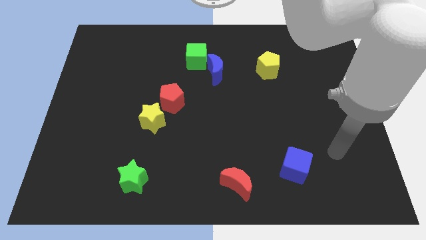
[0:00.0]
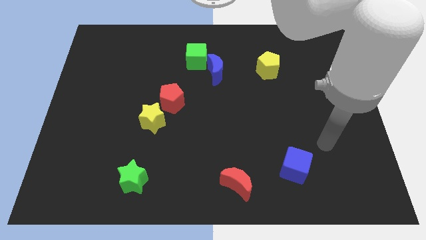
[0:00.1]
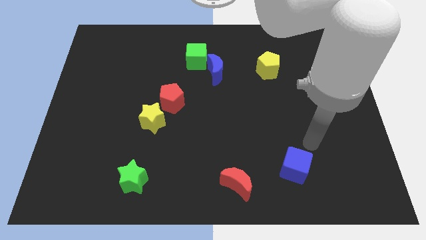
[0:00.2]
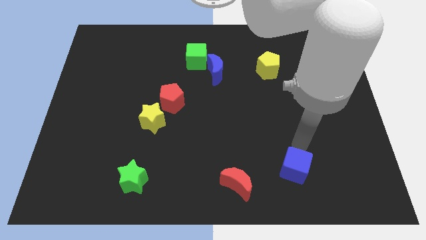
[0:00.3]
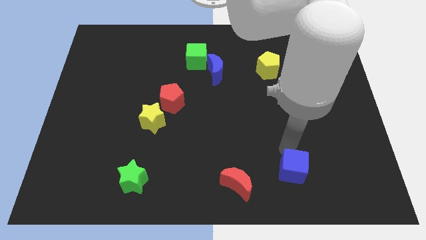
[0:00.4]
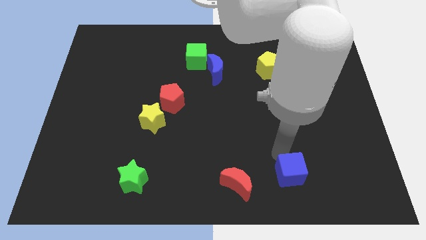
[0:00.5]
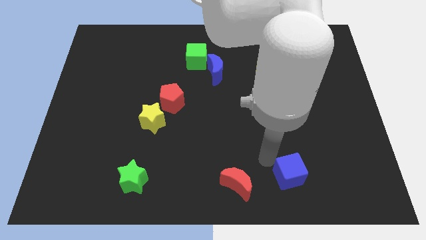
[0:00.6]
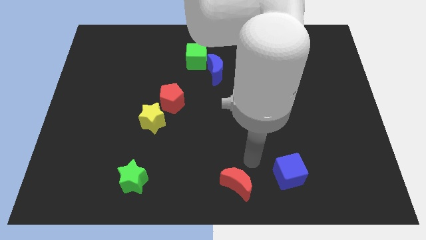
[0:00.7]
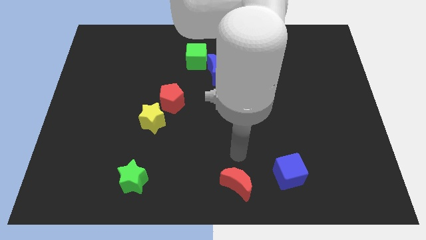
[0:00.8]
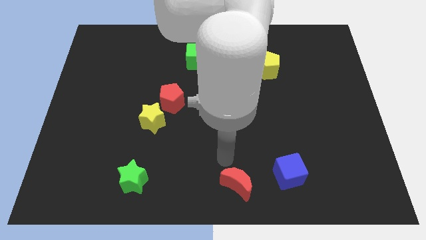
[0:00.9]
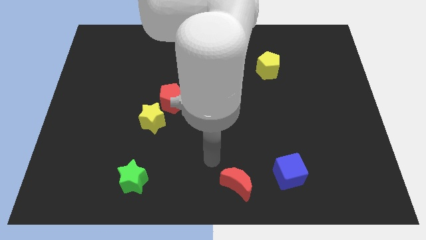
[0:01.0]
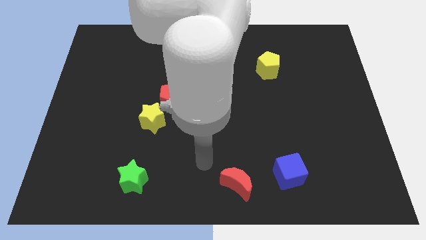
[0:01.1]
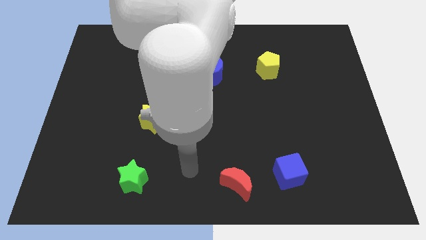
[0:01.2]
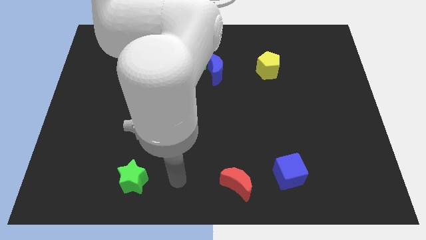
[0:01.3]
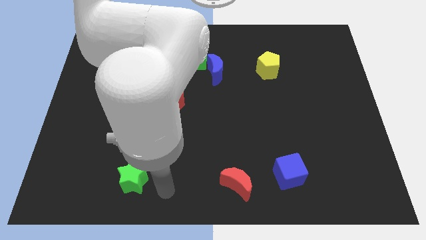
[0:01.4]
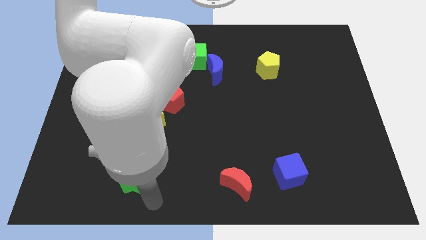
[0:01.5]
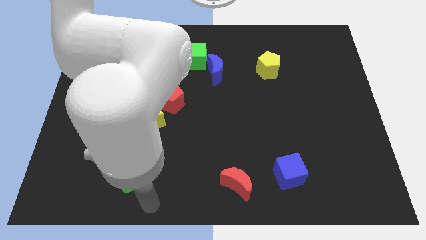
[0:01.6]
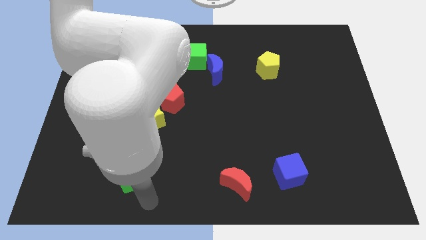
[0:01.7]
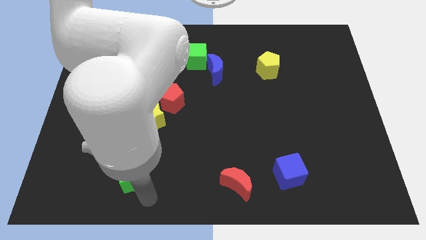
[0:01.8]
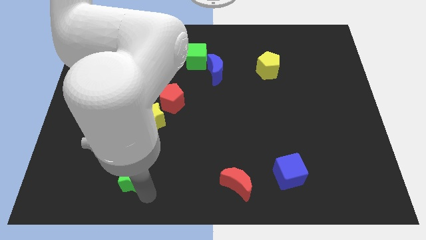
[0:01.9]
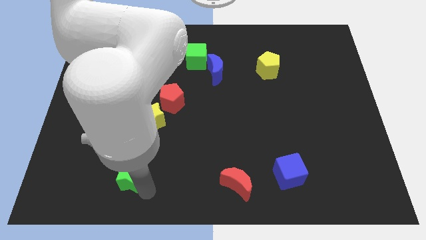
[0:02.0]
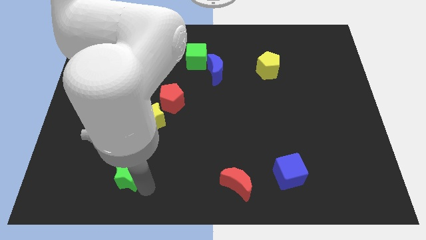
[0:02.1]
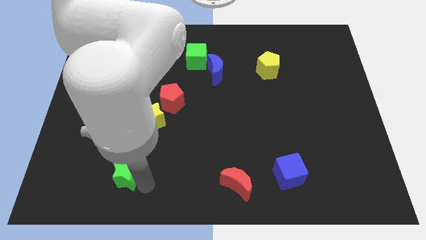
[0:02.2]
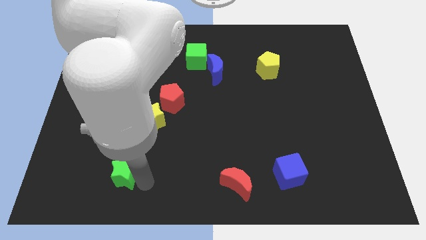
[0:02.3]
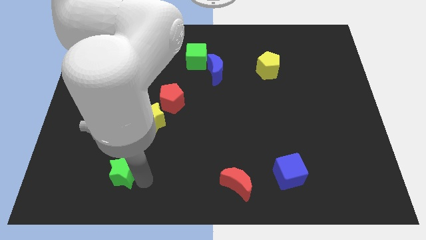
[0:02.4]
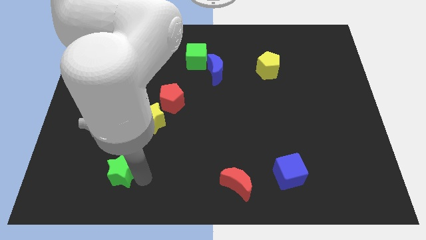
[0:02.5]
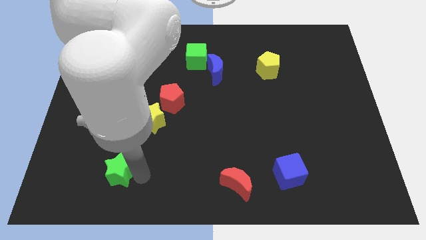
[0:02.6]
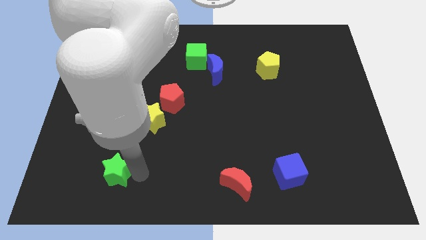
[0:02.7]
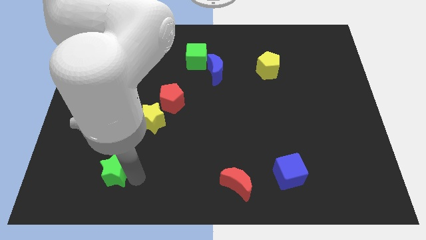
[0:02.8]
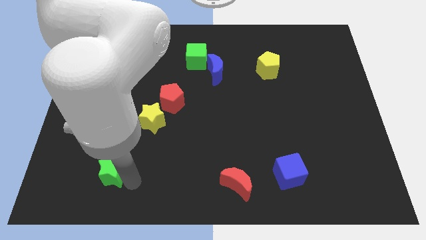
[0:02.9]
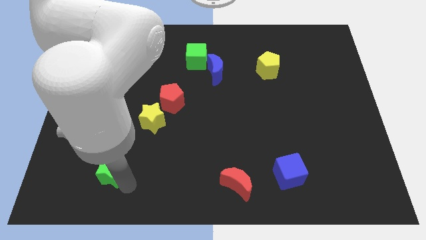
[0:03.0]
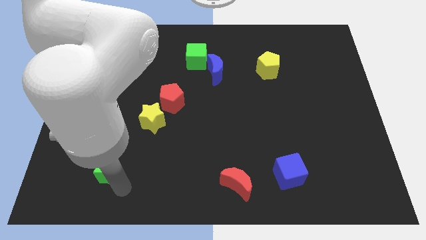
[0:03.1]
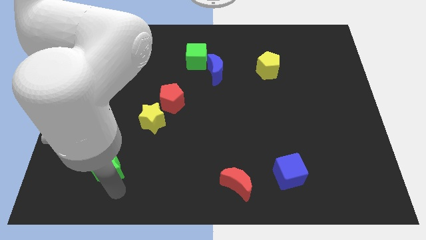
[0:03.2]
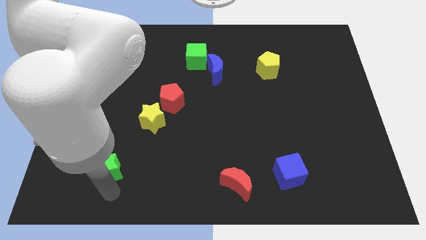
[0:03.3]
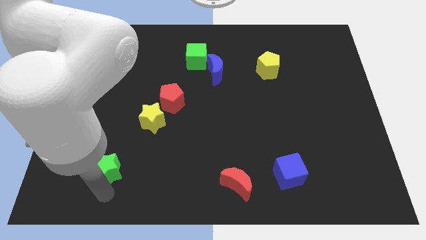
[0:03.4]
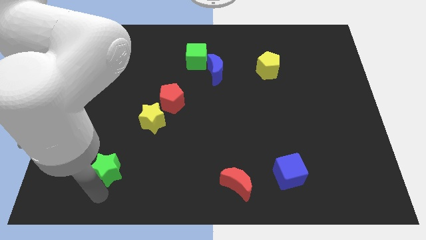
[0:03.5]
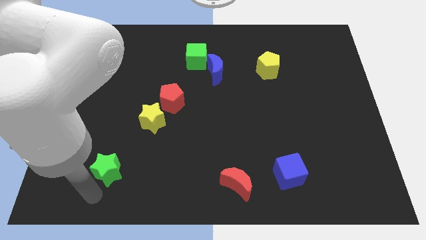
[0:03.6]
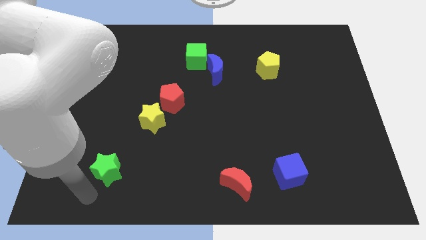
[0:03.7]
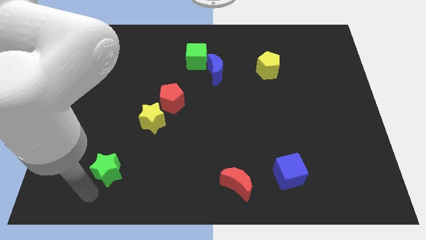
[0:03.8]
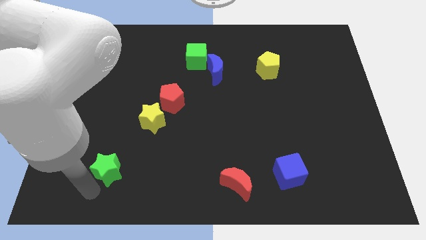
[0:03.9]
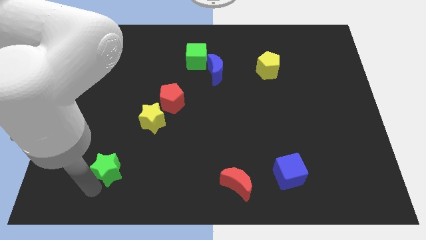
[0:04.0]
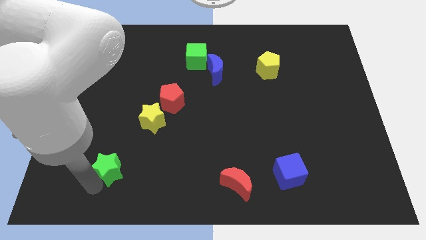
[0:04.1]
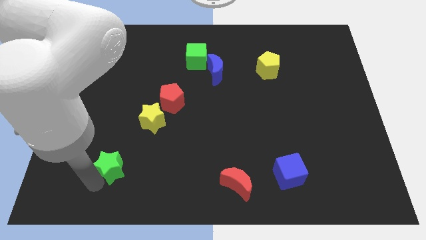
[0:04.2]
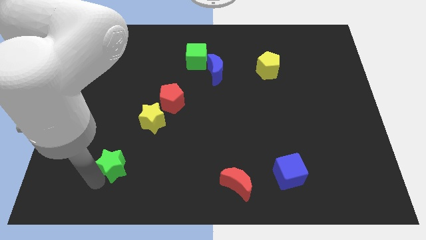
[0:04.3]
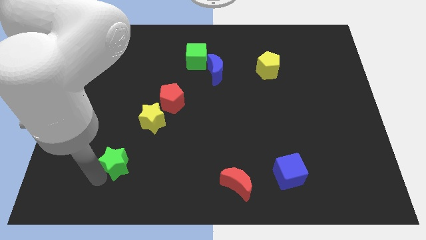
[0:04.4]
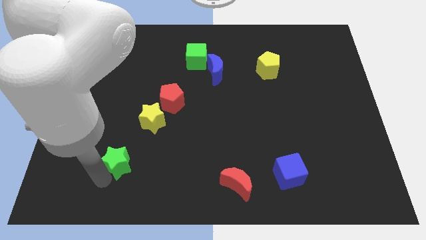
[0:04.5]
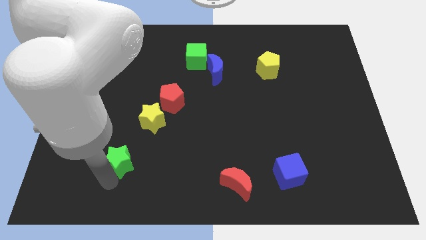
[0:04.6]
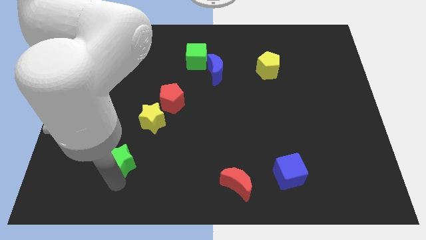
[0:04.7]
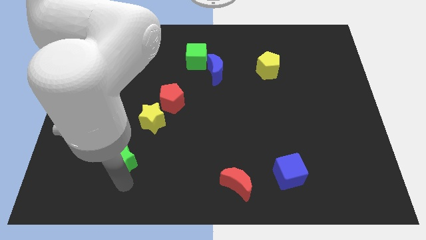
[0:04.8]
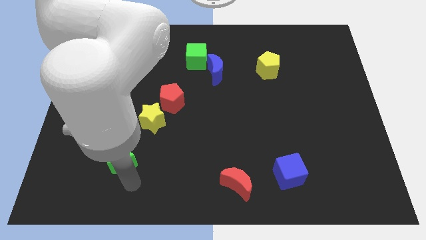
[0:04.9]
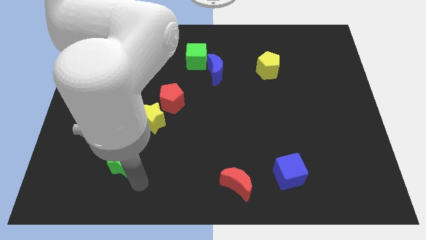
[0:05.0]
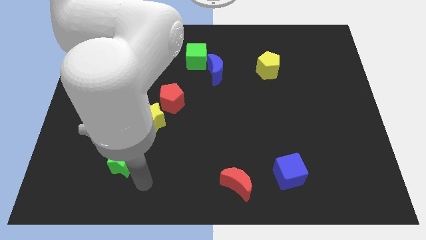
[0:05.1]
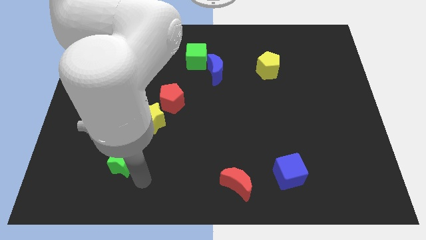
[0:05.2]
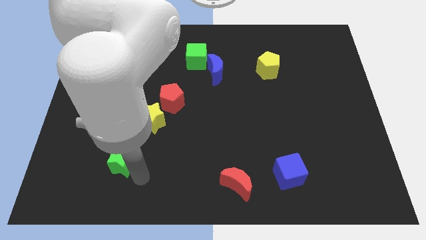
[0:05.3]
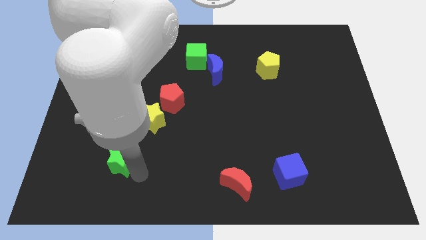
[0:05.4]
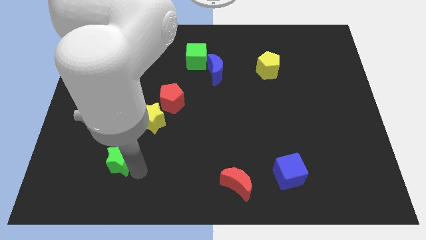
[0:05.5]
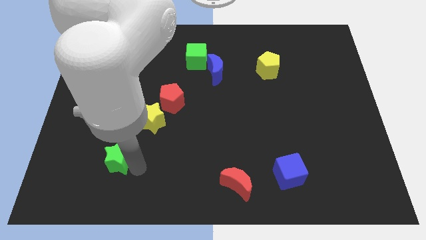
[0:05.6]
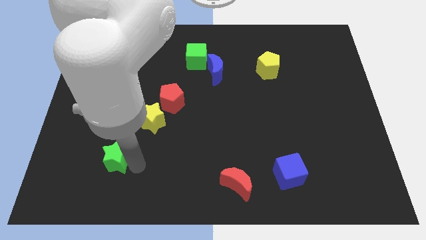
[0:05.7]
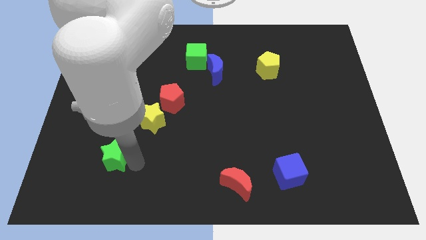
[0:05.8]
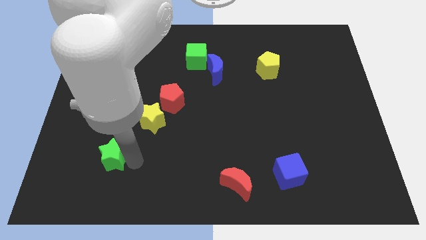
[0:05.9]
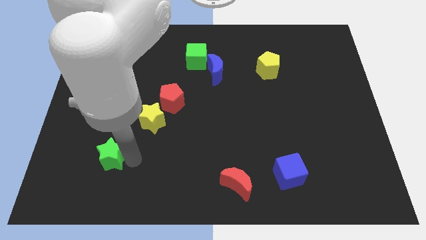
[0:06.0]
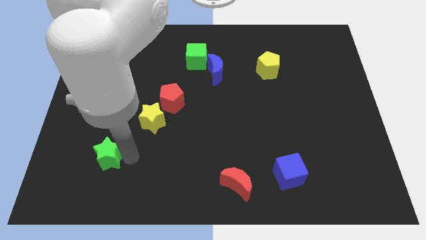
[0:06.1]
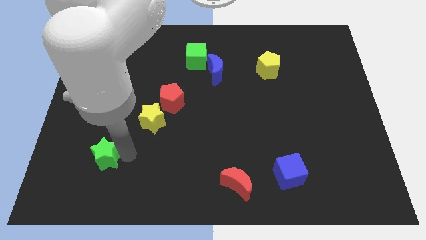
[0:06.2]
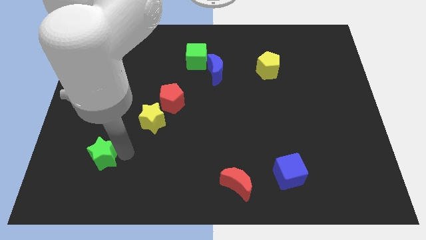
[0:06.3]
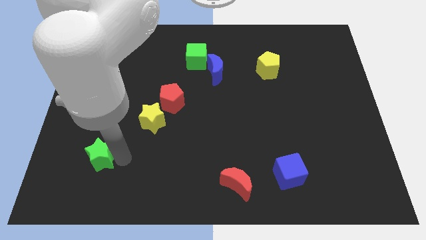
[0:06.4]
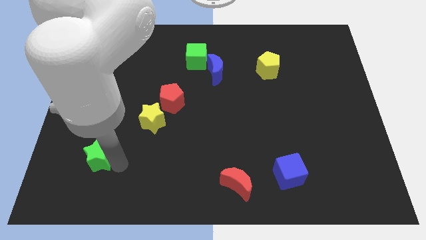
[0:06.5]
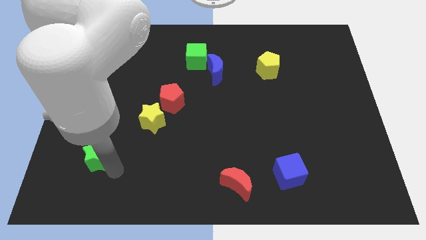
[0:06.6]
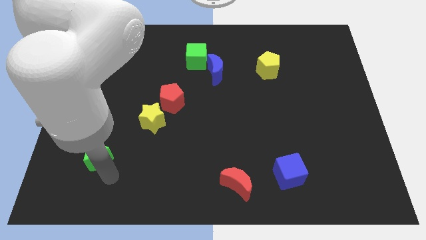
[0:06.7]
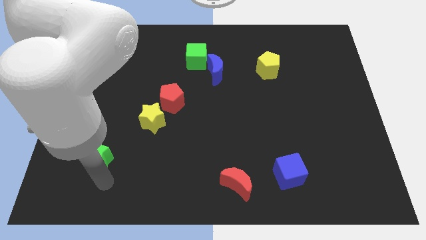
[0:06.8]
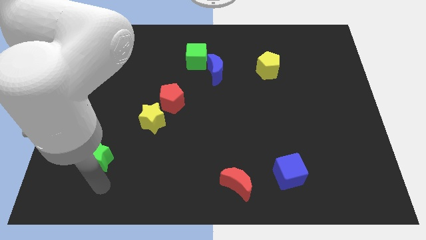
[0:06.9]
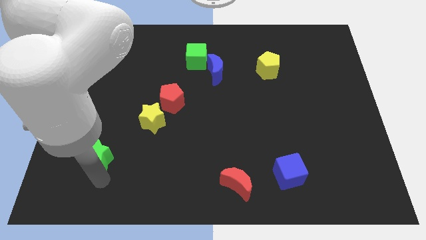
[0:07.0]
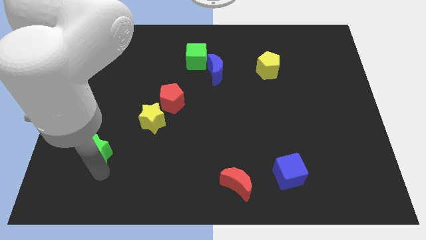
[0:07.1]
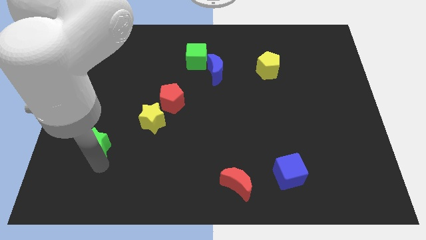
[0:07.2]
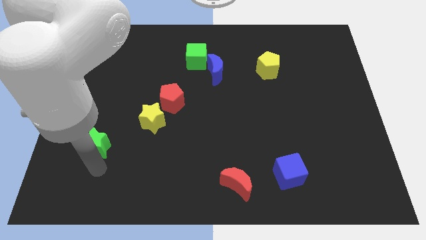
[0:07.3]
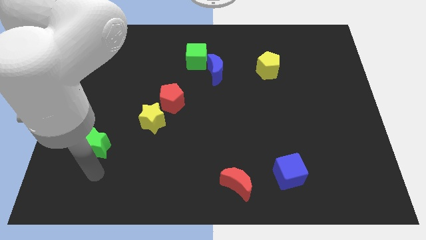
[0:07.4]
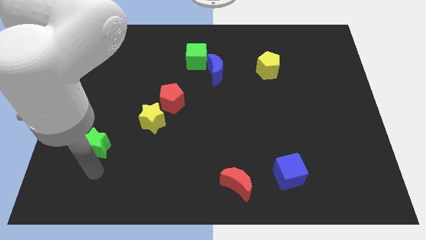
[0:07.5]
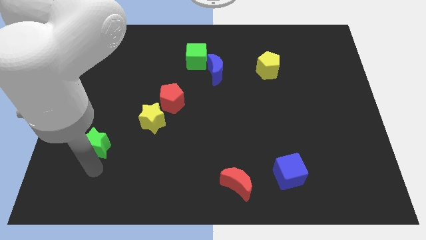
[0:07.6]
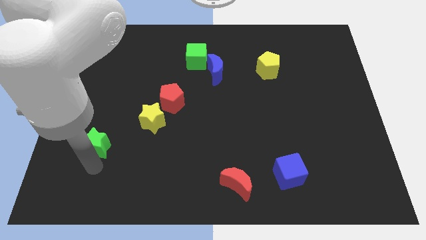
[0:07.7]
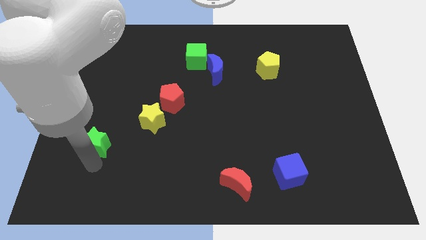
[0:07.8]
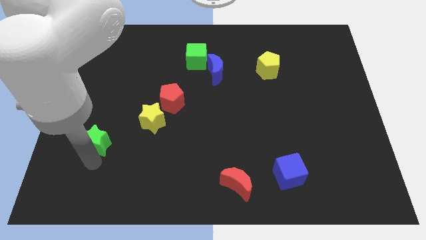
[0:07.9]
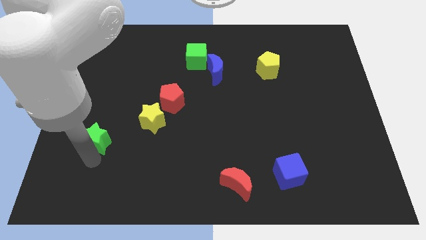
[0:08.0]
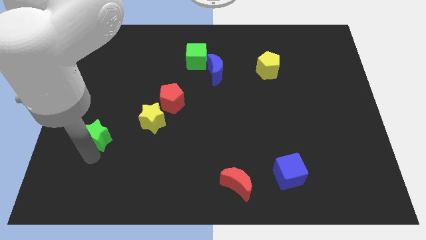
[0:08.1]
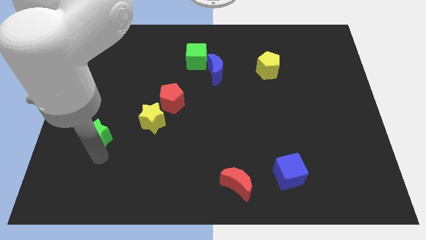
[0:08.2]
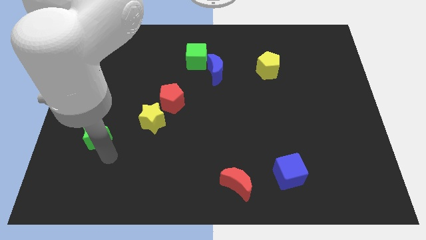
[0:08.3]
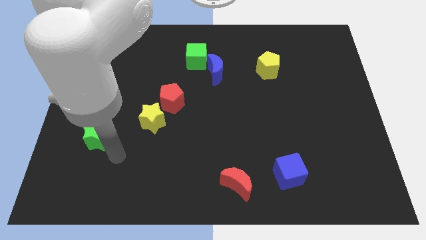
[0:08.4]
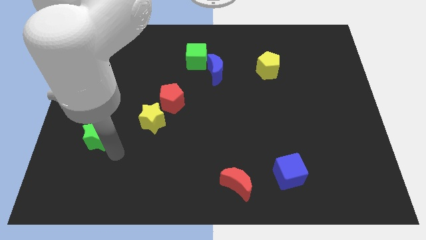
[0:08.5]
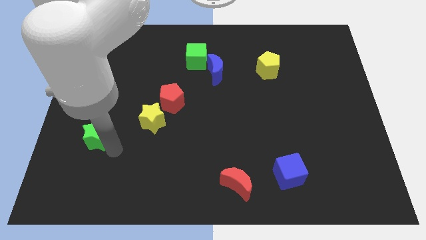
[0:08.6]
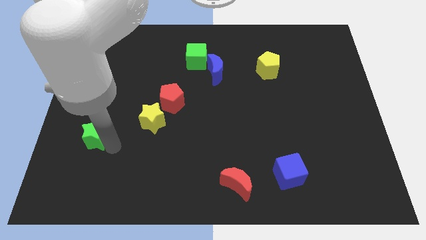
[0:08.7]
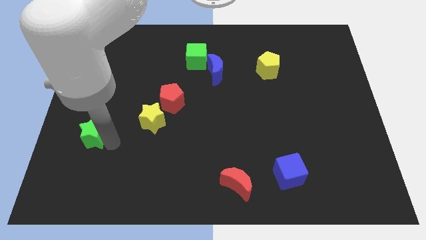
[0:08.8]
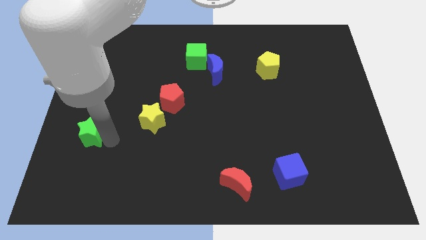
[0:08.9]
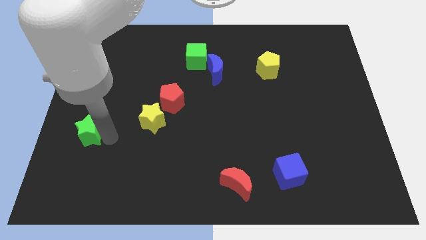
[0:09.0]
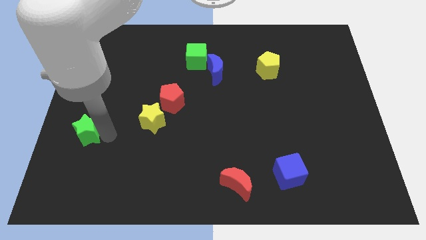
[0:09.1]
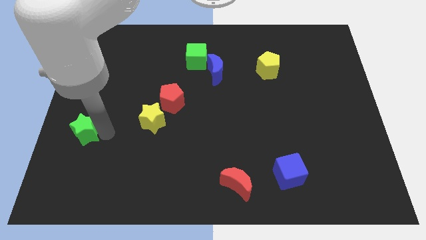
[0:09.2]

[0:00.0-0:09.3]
put the green star to the left side of the board
